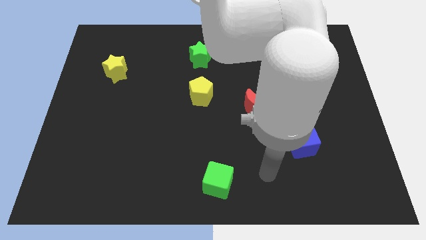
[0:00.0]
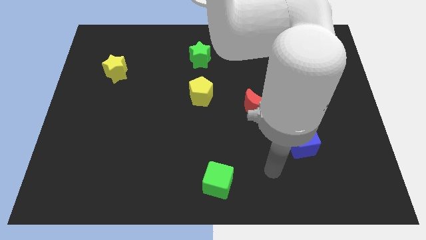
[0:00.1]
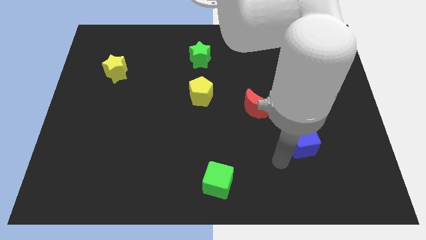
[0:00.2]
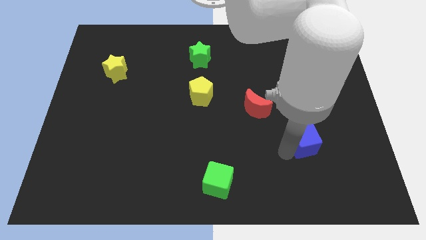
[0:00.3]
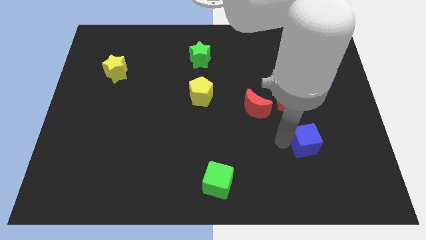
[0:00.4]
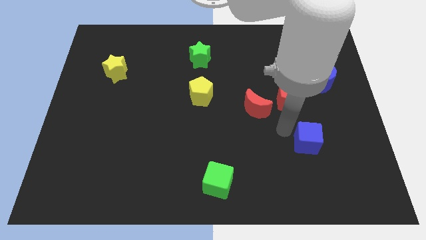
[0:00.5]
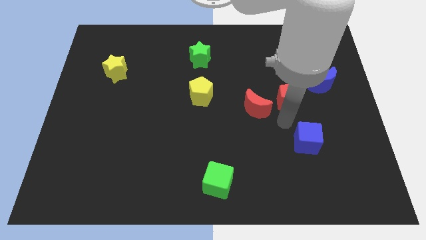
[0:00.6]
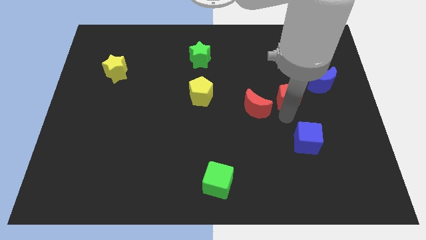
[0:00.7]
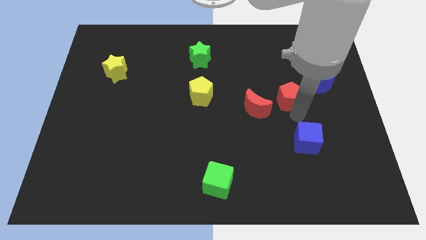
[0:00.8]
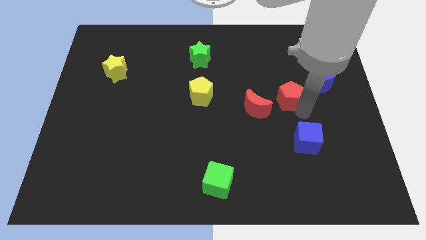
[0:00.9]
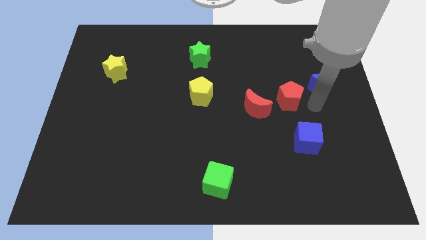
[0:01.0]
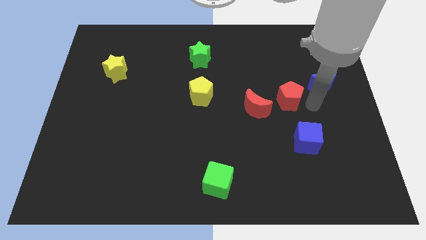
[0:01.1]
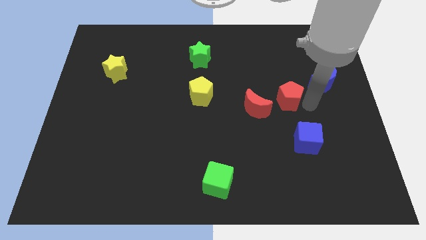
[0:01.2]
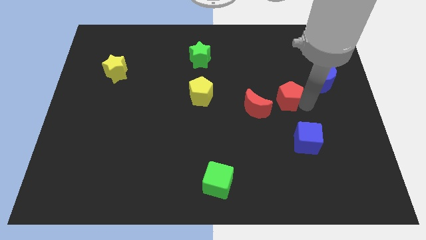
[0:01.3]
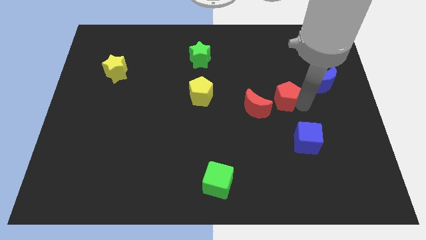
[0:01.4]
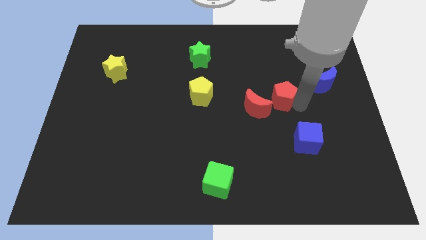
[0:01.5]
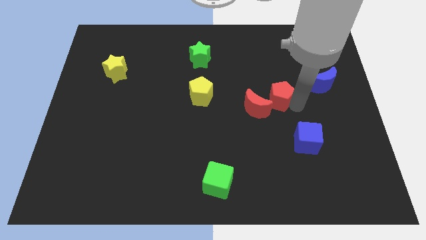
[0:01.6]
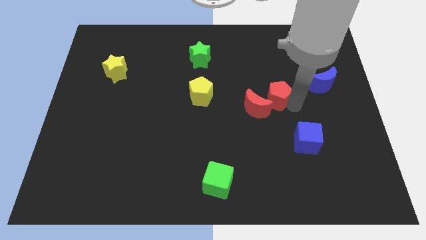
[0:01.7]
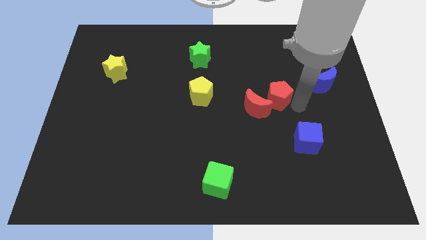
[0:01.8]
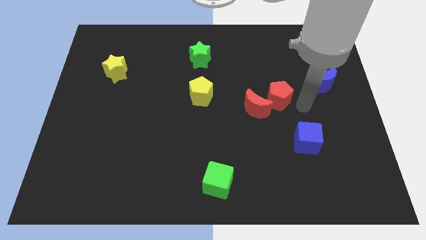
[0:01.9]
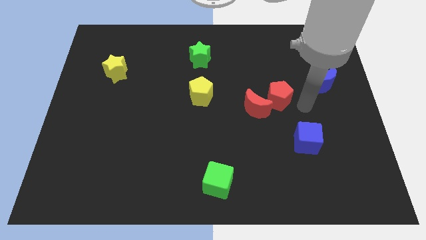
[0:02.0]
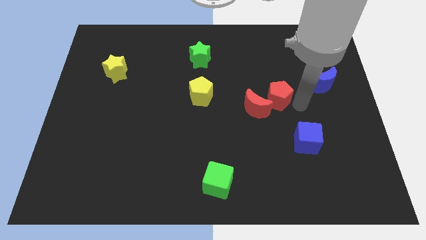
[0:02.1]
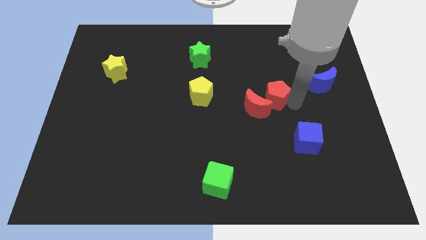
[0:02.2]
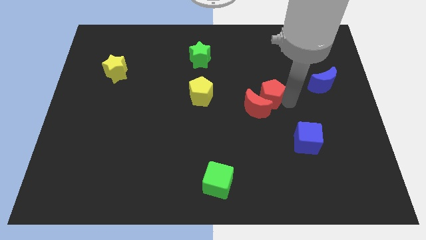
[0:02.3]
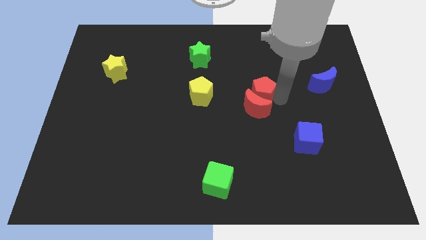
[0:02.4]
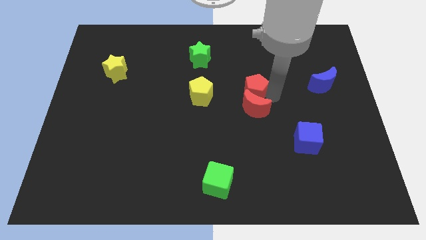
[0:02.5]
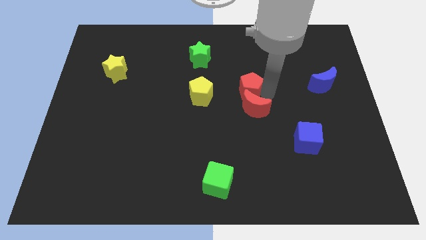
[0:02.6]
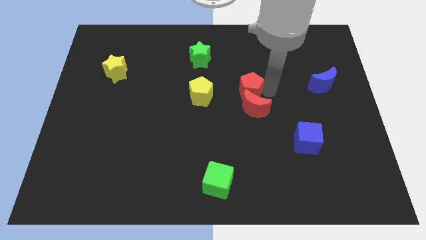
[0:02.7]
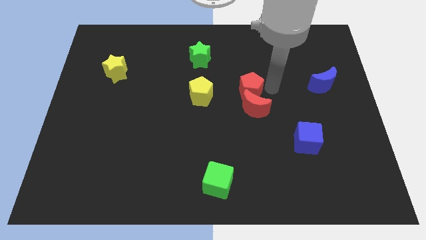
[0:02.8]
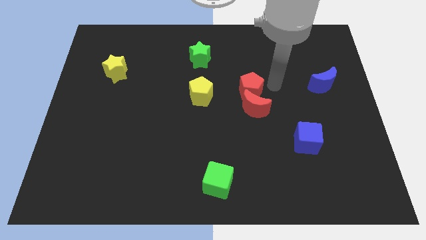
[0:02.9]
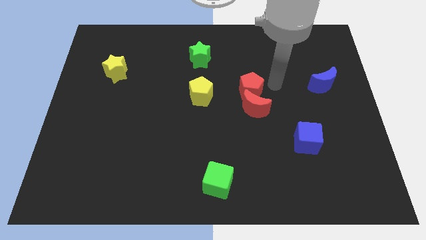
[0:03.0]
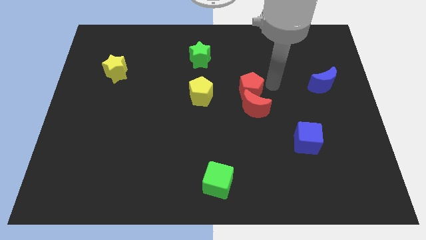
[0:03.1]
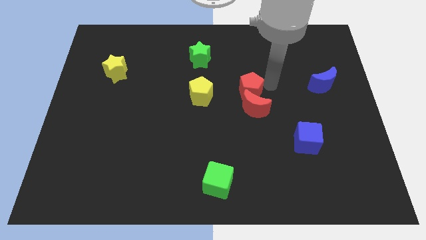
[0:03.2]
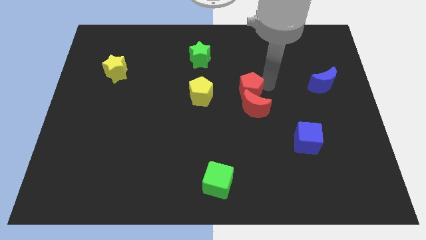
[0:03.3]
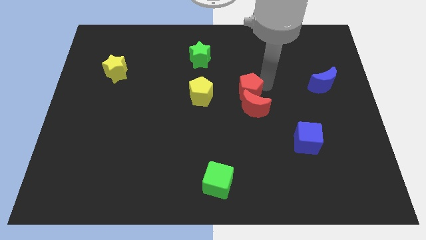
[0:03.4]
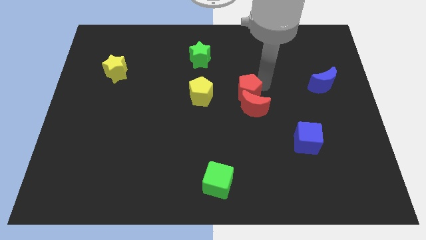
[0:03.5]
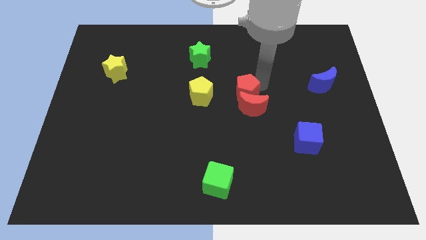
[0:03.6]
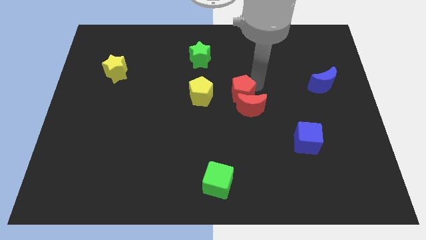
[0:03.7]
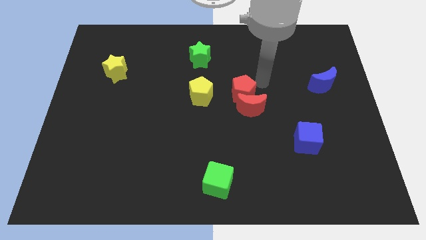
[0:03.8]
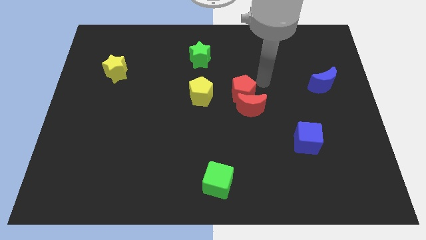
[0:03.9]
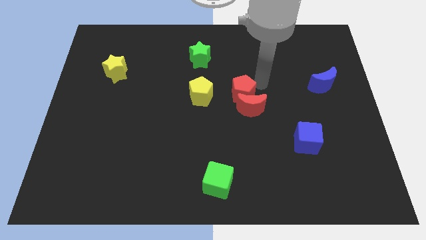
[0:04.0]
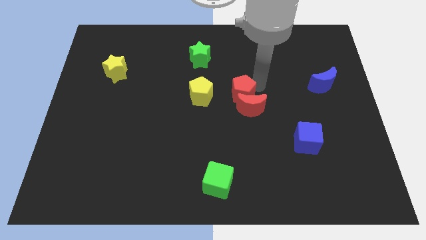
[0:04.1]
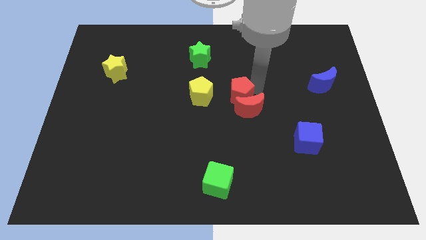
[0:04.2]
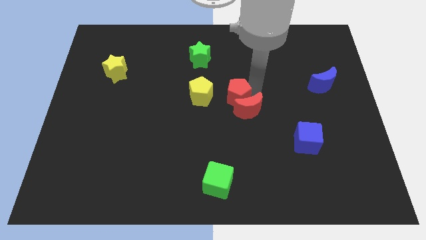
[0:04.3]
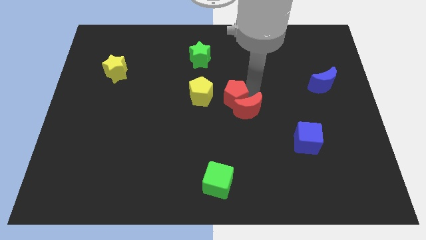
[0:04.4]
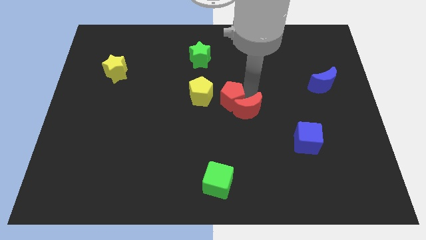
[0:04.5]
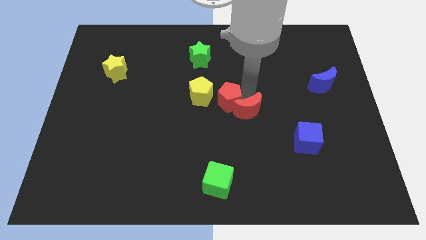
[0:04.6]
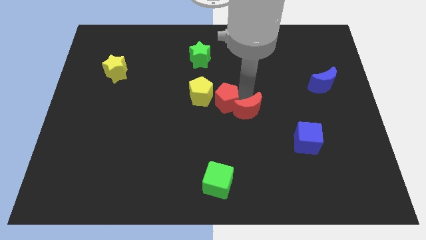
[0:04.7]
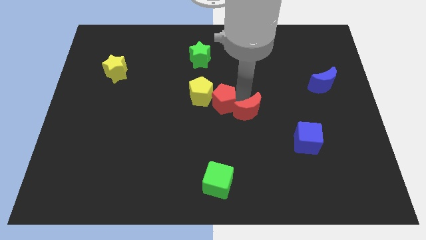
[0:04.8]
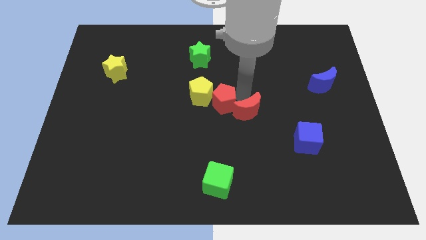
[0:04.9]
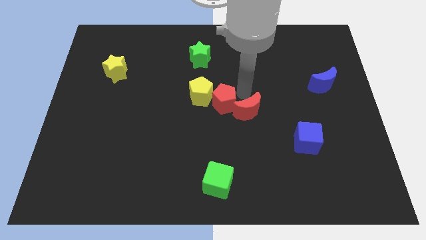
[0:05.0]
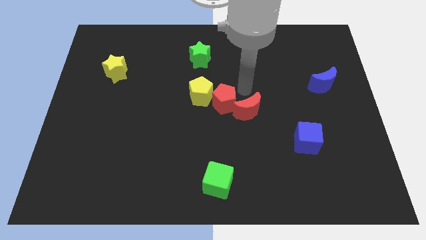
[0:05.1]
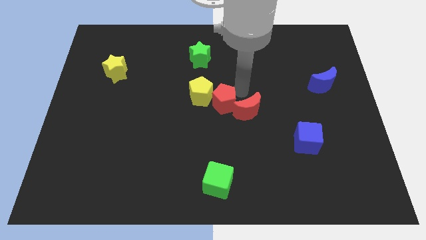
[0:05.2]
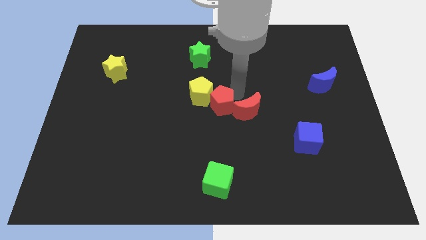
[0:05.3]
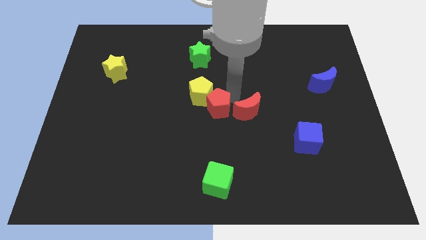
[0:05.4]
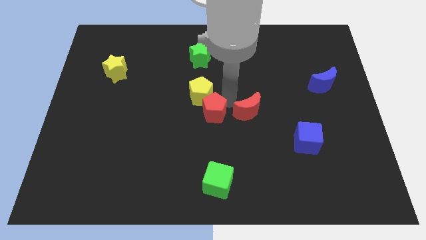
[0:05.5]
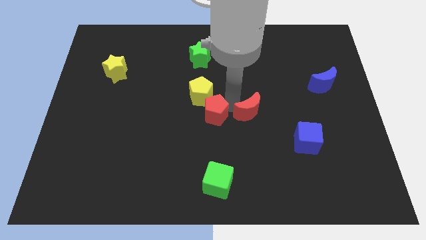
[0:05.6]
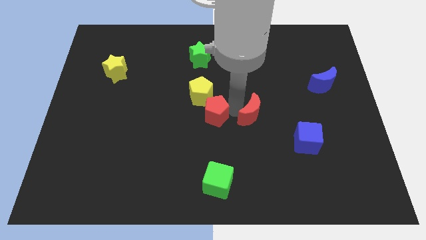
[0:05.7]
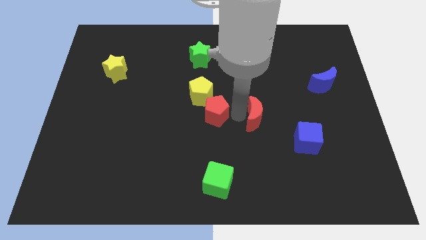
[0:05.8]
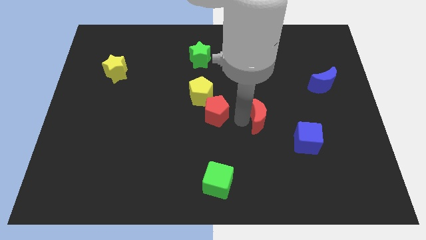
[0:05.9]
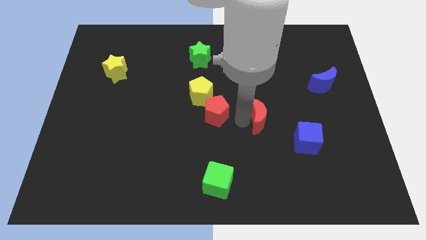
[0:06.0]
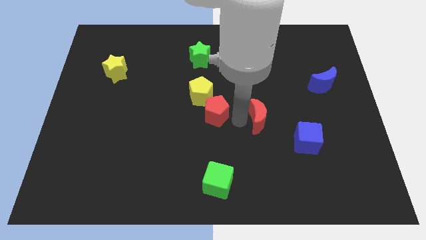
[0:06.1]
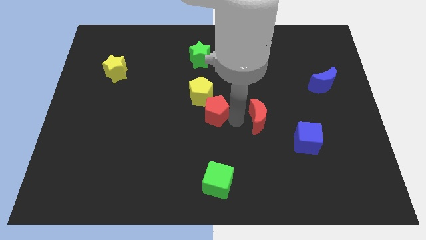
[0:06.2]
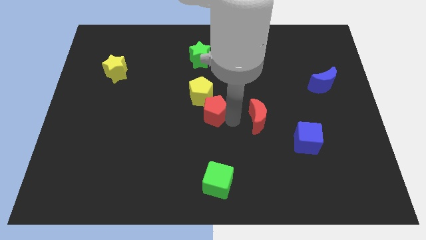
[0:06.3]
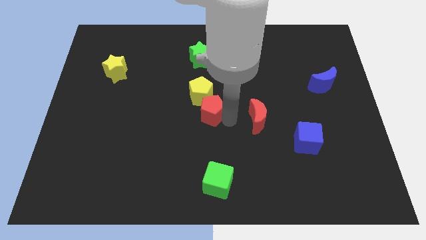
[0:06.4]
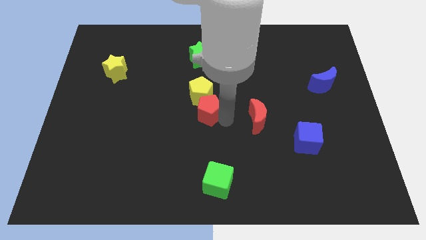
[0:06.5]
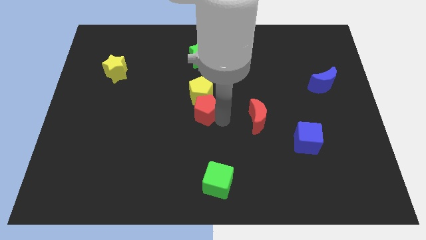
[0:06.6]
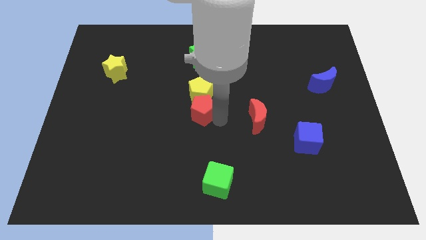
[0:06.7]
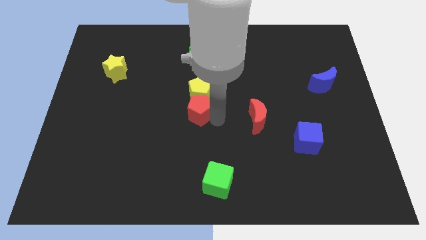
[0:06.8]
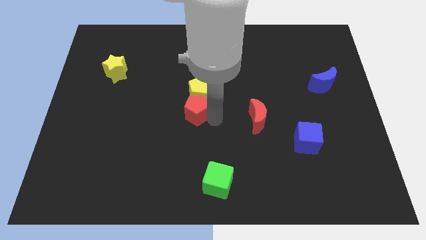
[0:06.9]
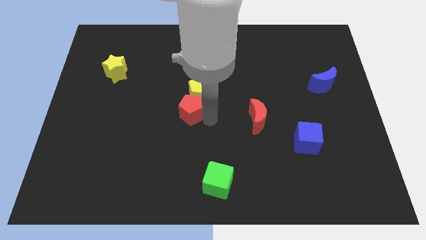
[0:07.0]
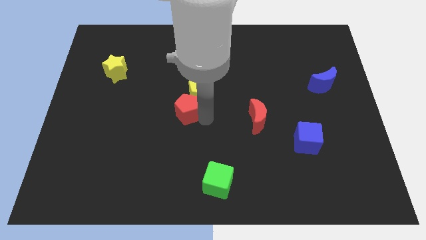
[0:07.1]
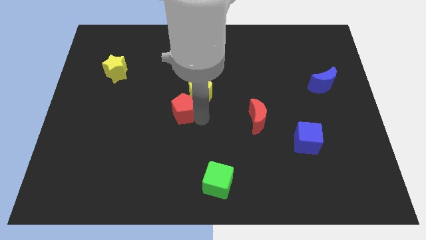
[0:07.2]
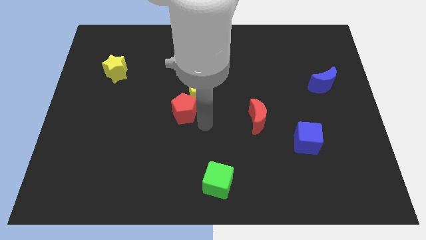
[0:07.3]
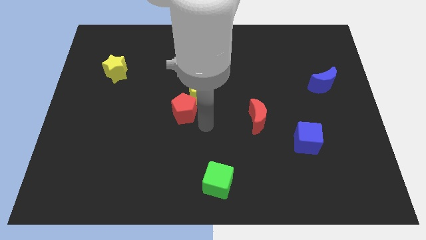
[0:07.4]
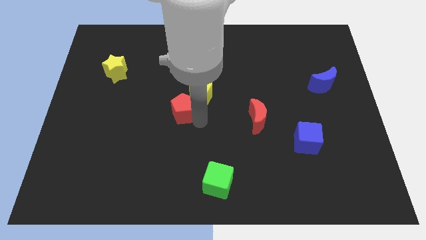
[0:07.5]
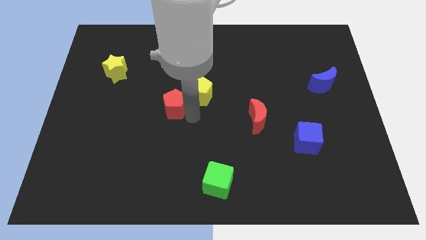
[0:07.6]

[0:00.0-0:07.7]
push the red pentagon just left of the yellow pentagon
